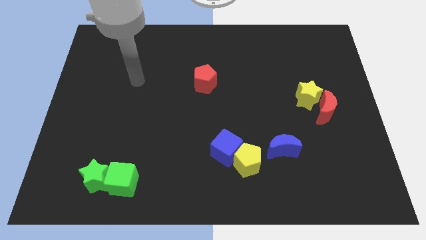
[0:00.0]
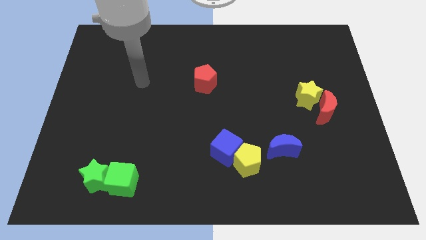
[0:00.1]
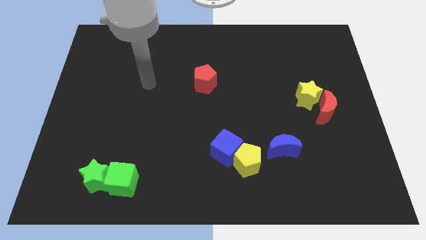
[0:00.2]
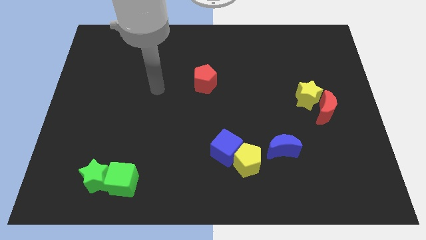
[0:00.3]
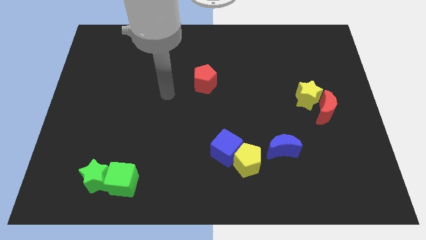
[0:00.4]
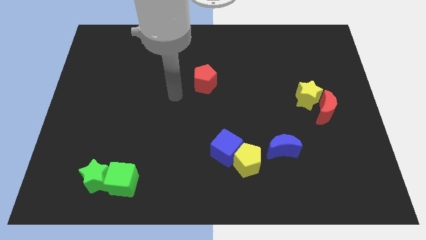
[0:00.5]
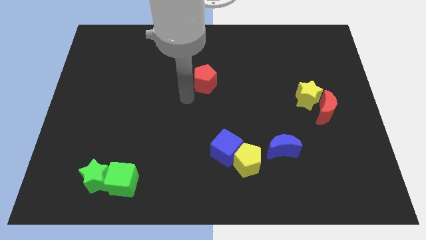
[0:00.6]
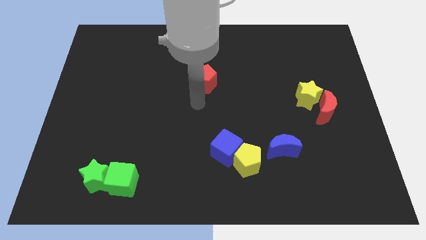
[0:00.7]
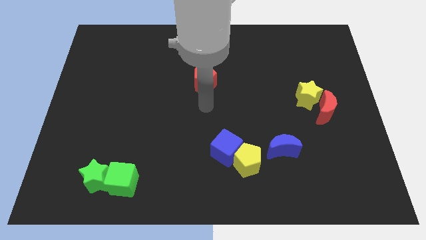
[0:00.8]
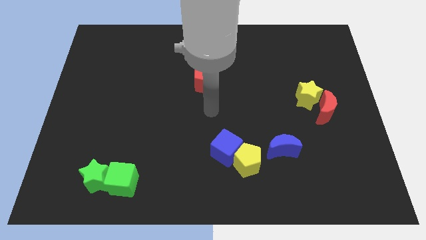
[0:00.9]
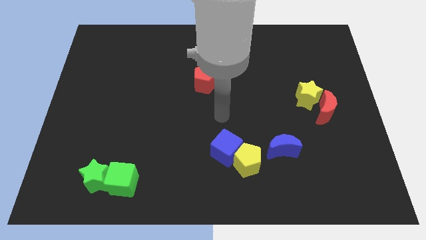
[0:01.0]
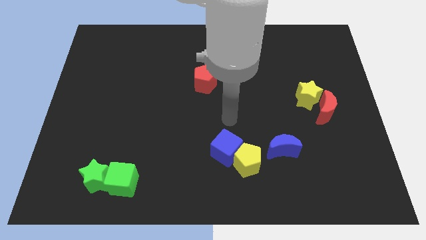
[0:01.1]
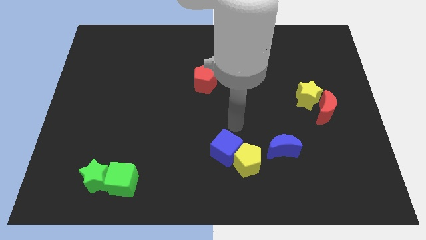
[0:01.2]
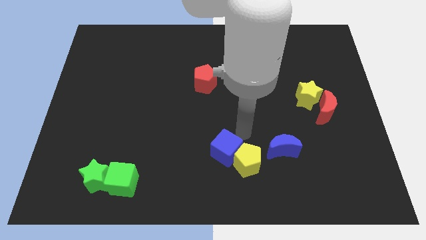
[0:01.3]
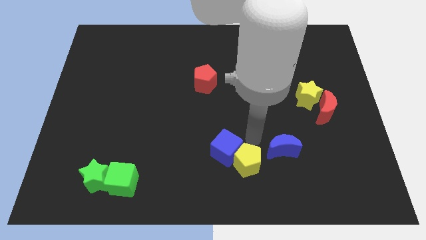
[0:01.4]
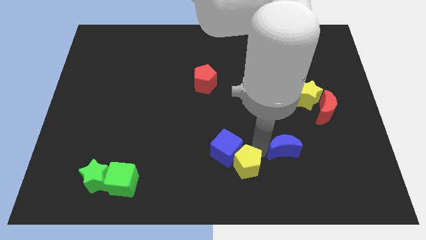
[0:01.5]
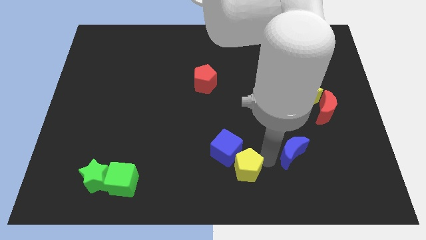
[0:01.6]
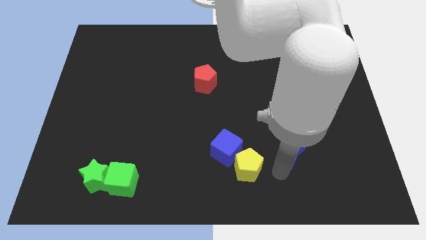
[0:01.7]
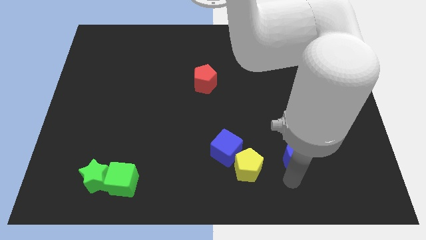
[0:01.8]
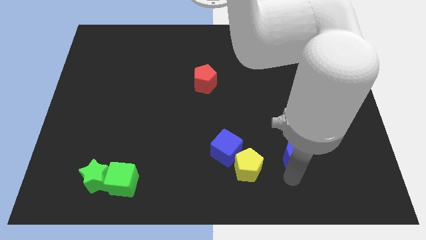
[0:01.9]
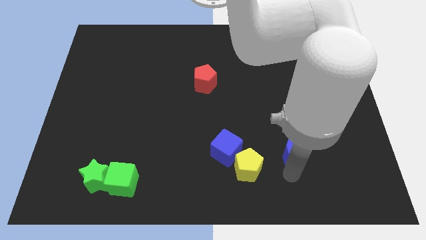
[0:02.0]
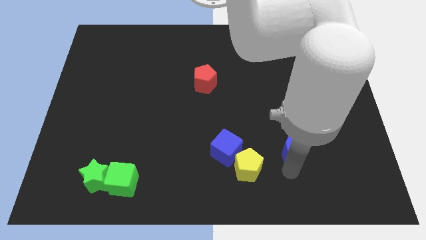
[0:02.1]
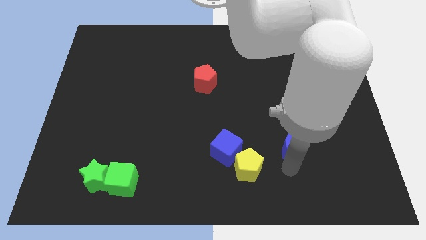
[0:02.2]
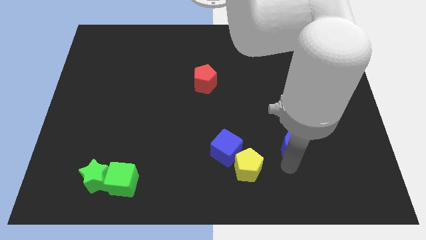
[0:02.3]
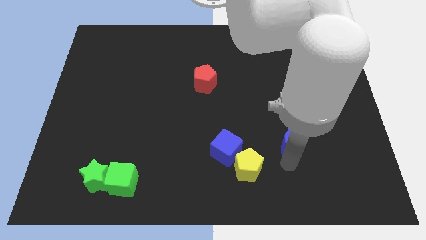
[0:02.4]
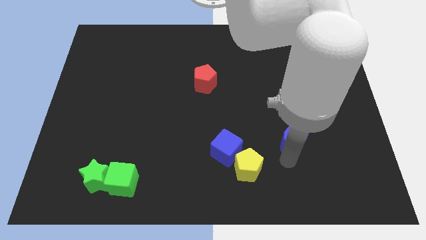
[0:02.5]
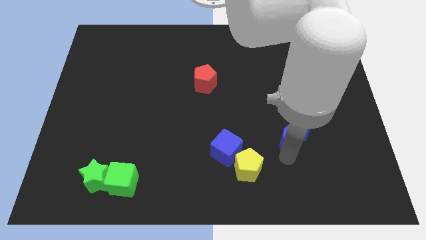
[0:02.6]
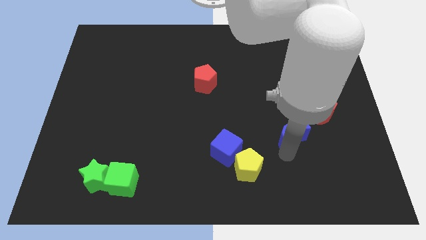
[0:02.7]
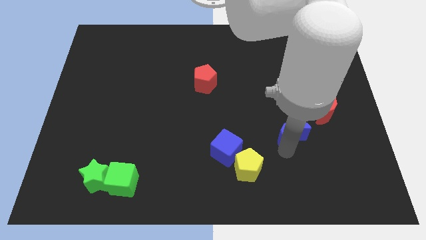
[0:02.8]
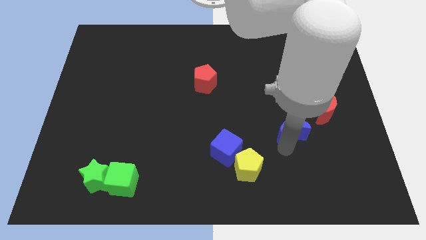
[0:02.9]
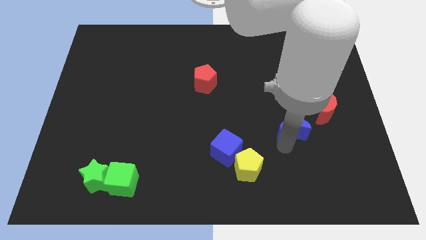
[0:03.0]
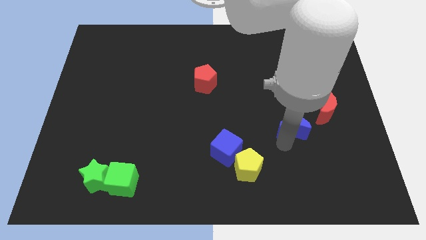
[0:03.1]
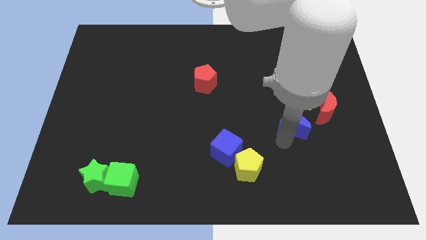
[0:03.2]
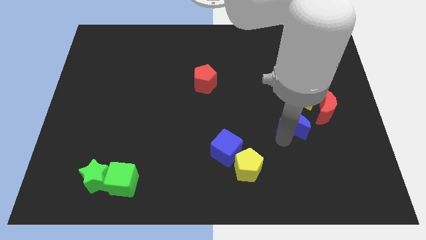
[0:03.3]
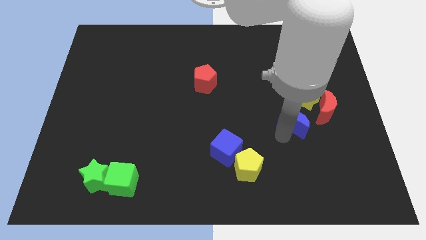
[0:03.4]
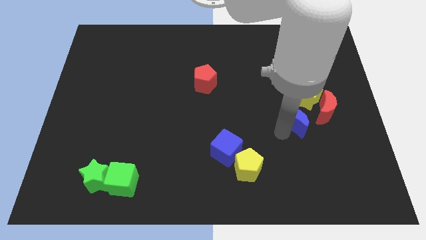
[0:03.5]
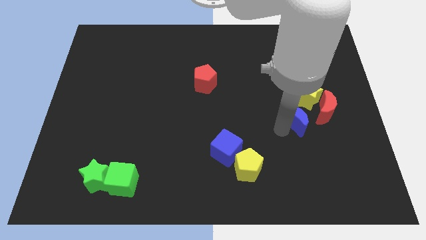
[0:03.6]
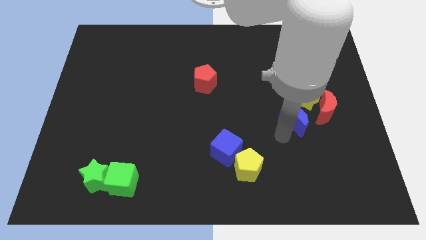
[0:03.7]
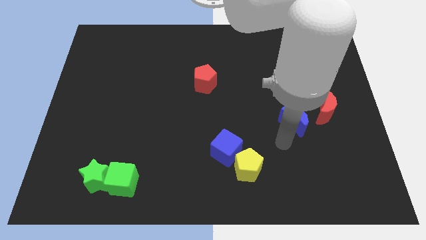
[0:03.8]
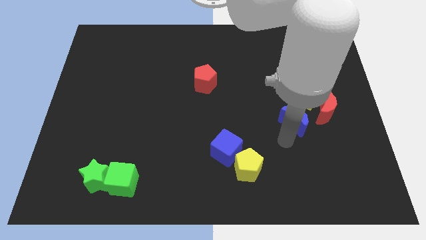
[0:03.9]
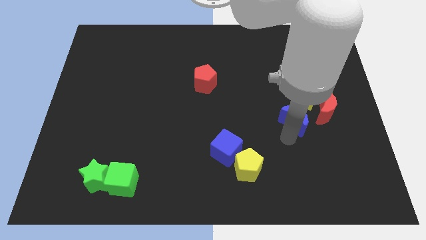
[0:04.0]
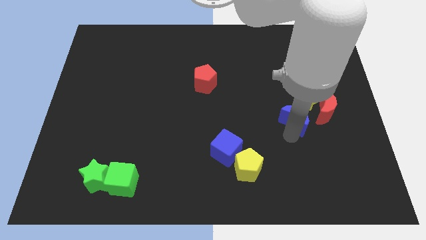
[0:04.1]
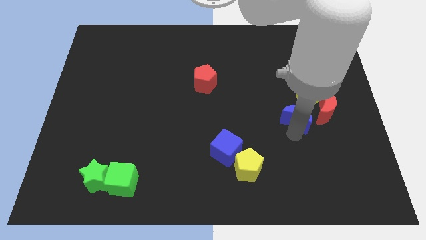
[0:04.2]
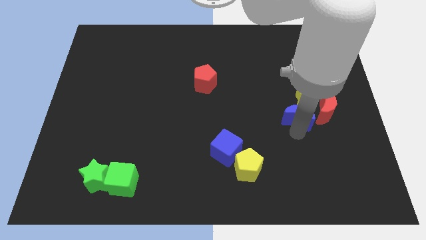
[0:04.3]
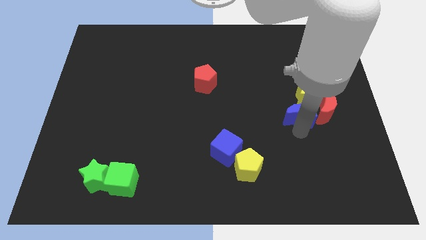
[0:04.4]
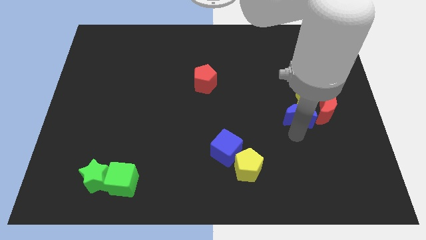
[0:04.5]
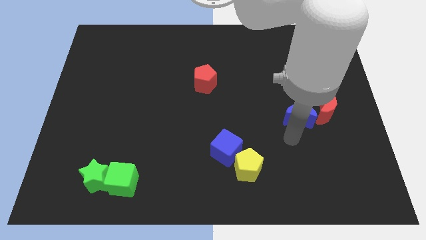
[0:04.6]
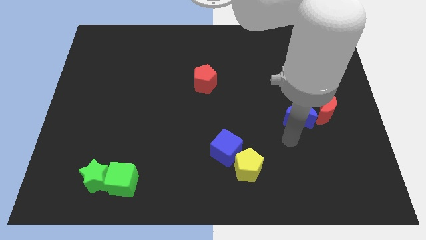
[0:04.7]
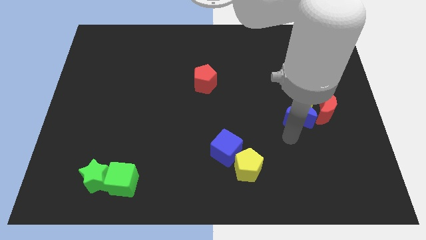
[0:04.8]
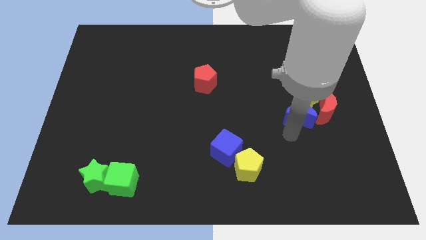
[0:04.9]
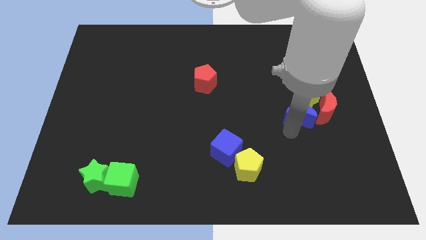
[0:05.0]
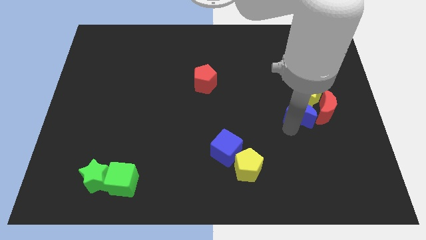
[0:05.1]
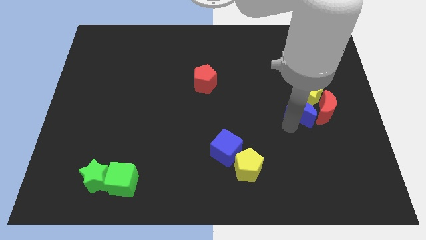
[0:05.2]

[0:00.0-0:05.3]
put the blue moon close to the yellow star

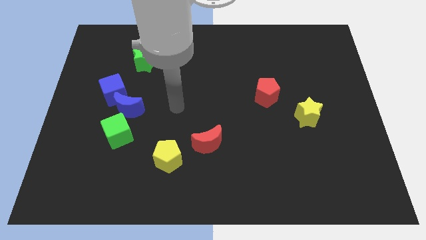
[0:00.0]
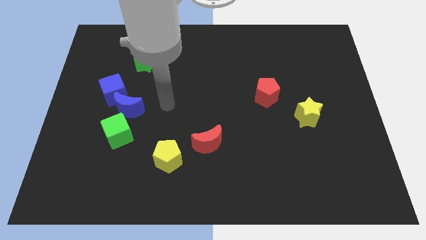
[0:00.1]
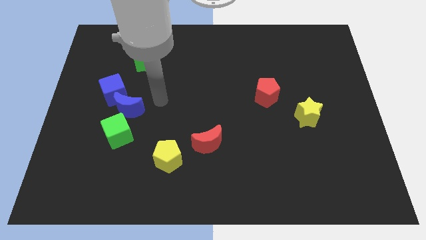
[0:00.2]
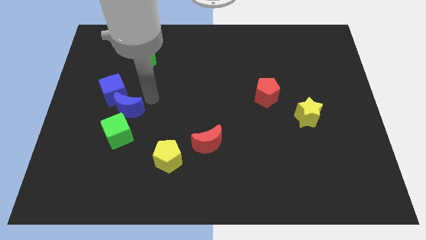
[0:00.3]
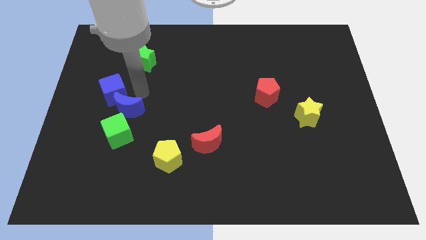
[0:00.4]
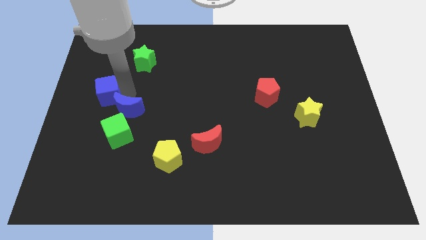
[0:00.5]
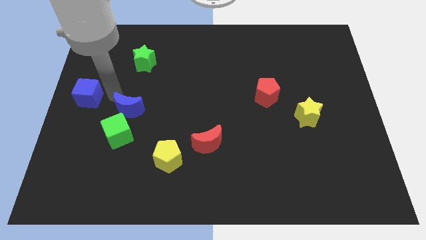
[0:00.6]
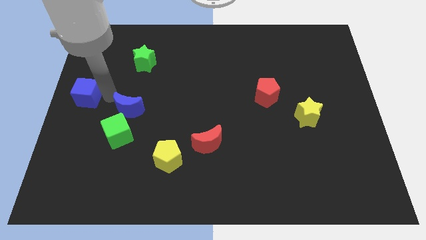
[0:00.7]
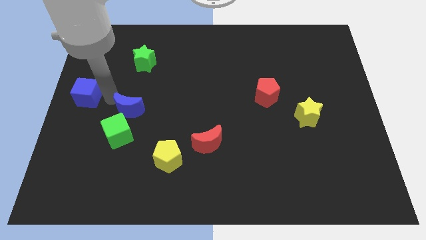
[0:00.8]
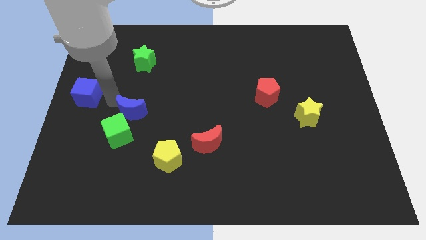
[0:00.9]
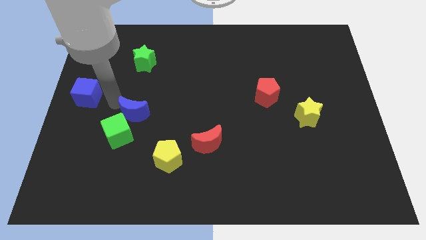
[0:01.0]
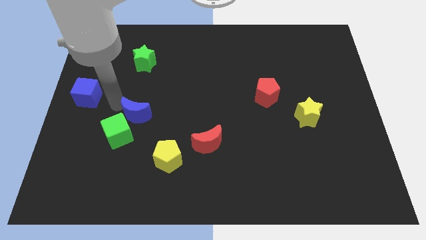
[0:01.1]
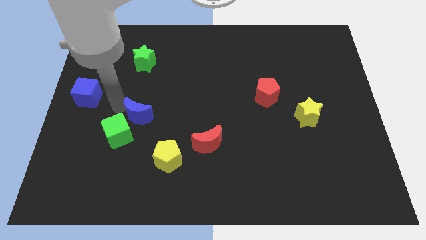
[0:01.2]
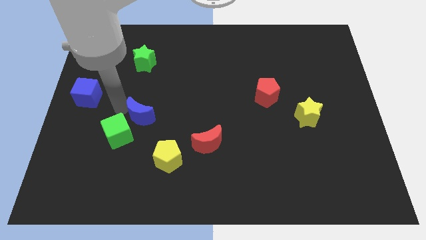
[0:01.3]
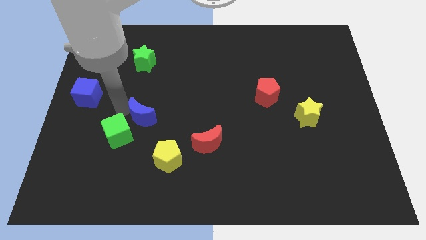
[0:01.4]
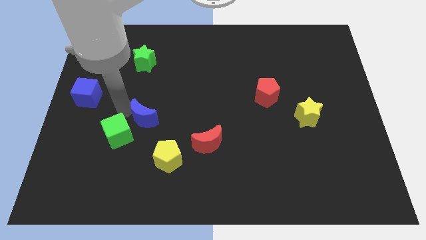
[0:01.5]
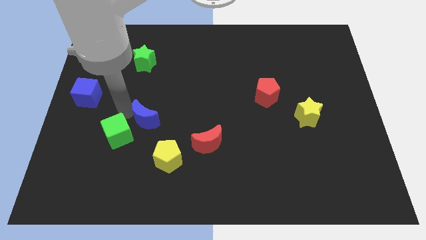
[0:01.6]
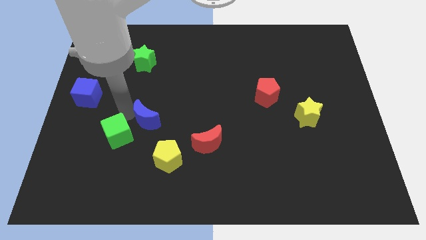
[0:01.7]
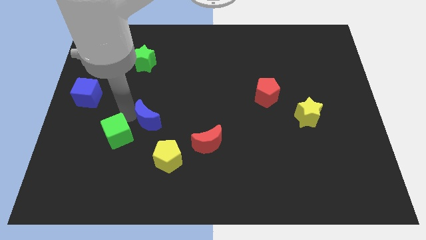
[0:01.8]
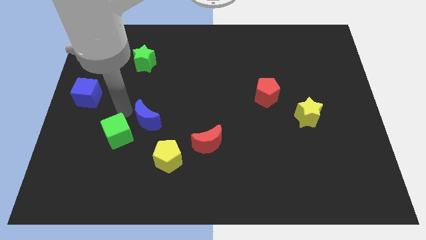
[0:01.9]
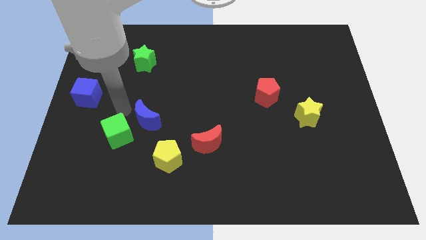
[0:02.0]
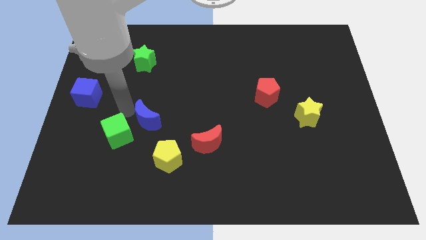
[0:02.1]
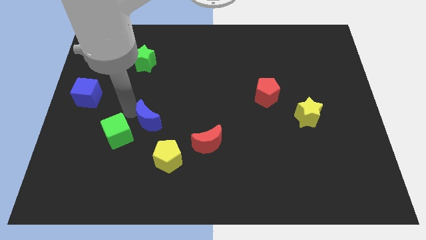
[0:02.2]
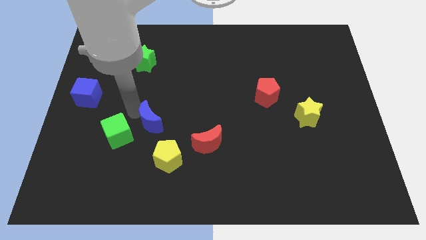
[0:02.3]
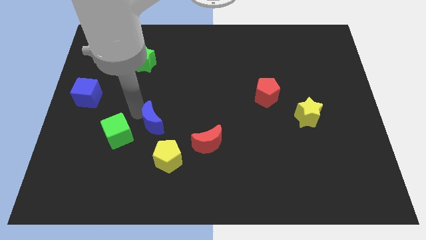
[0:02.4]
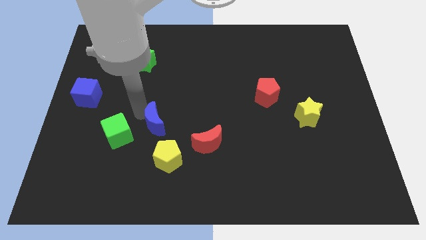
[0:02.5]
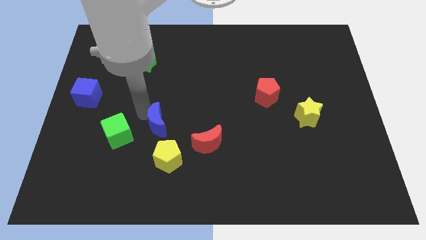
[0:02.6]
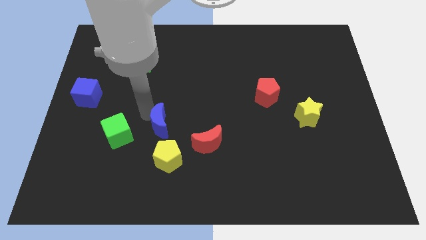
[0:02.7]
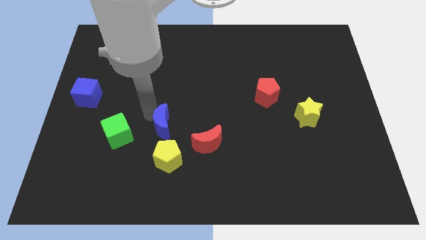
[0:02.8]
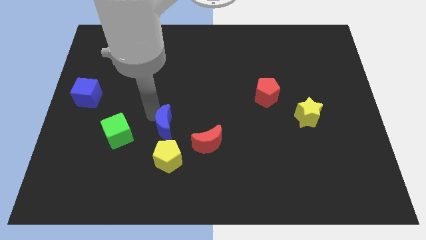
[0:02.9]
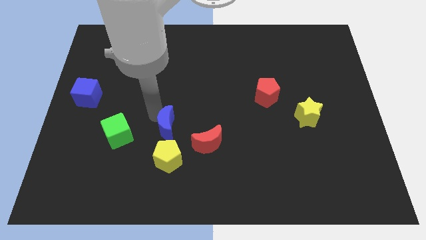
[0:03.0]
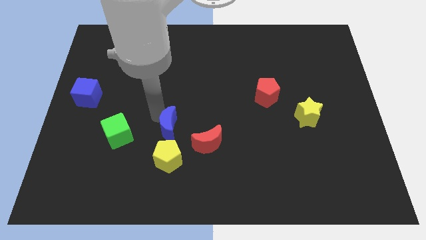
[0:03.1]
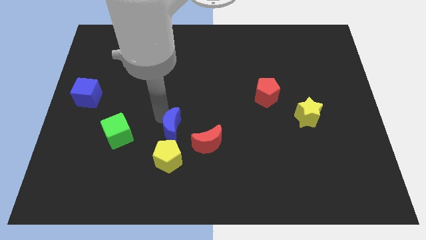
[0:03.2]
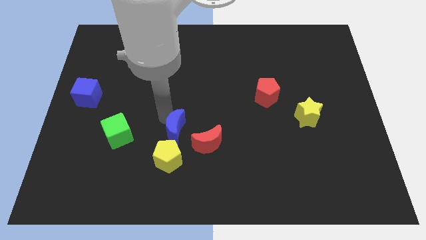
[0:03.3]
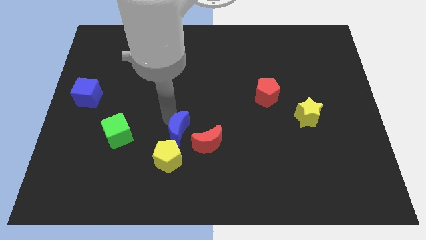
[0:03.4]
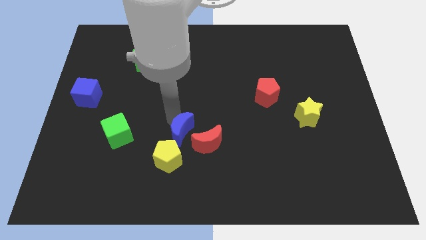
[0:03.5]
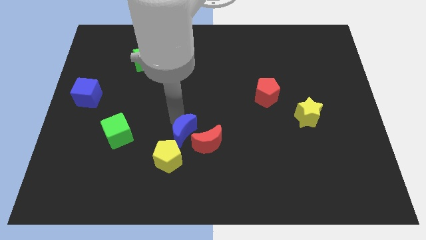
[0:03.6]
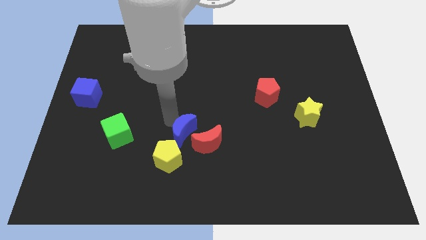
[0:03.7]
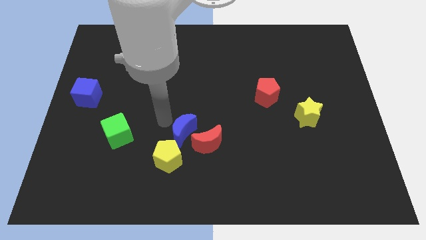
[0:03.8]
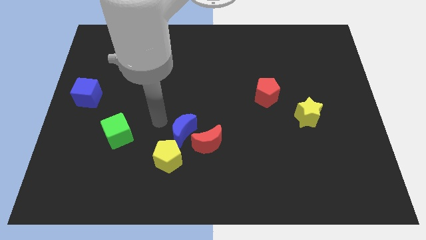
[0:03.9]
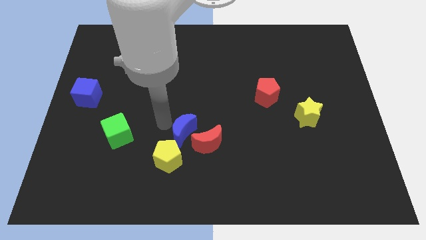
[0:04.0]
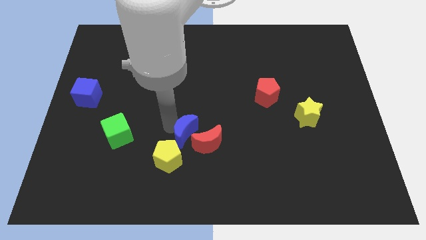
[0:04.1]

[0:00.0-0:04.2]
move the blue moon next to the red moon
